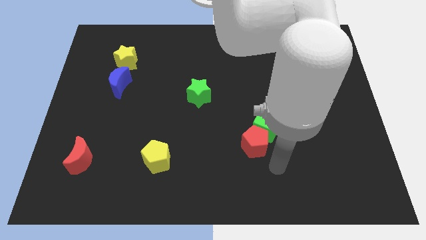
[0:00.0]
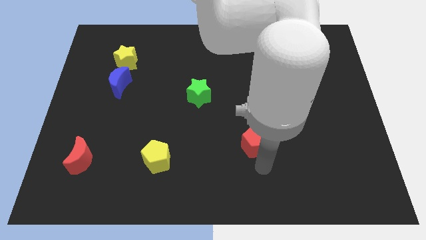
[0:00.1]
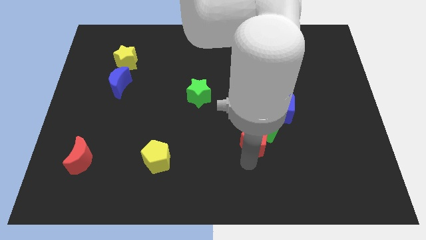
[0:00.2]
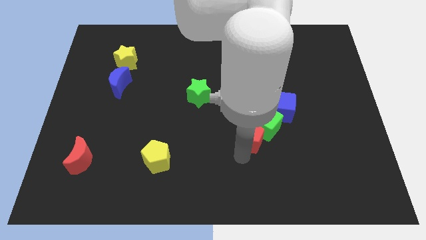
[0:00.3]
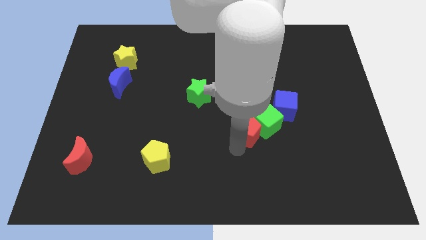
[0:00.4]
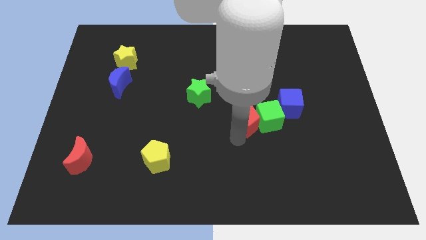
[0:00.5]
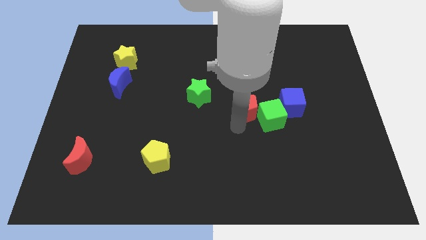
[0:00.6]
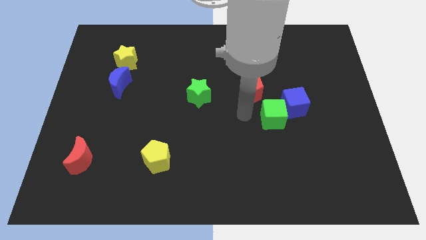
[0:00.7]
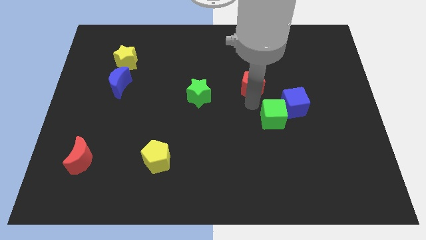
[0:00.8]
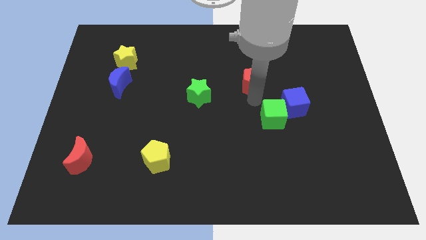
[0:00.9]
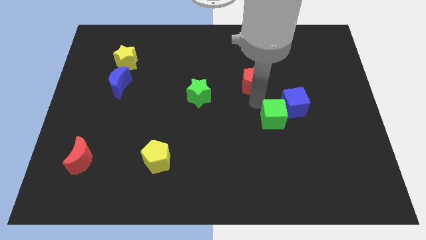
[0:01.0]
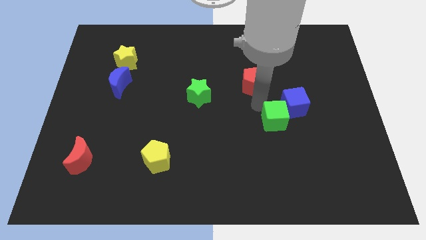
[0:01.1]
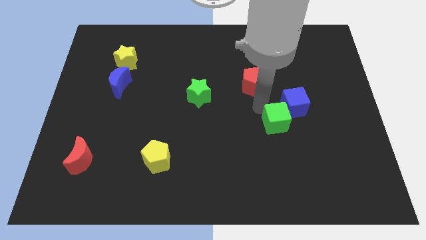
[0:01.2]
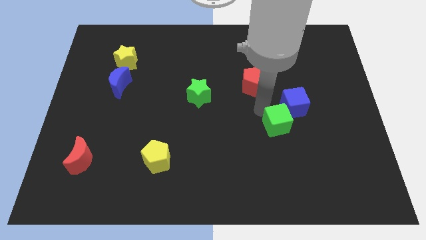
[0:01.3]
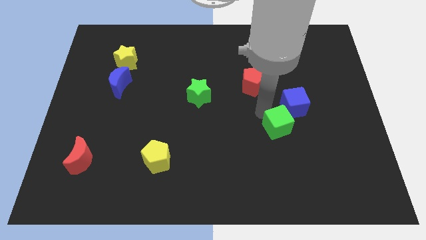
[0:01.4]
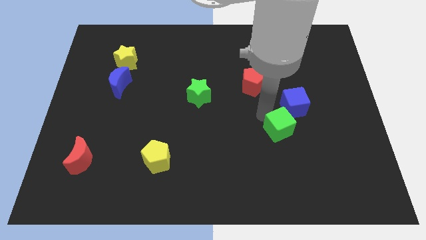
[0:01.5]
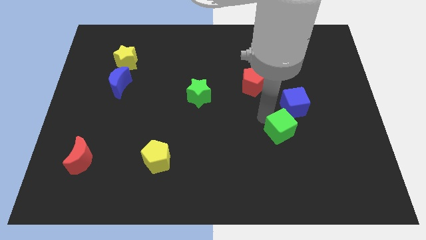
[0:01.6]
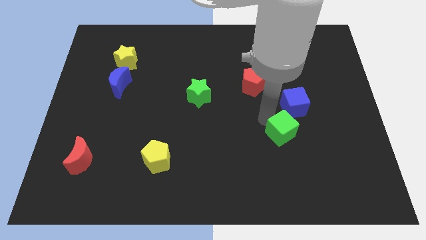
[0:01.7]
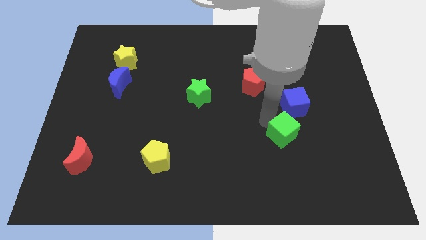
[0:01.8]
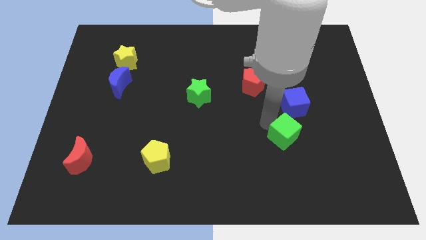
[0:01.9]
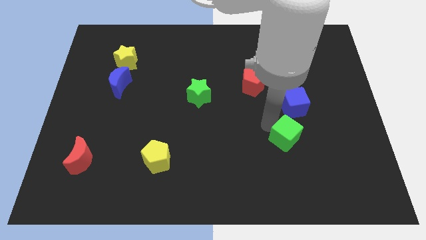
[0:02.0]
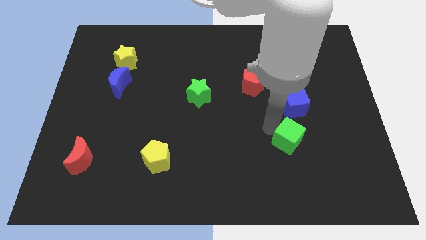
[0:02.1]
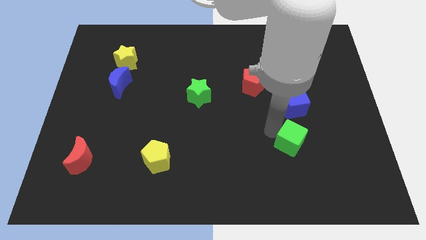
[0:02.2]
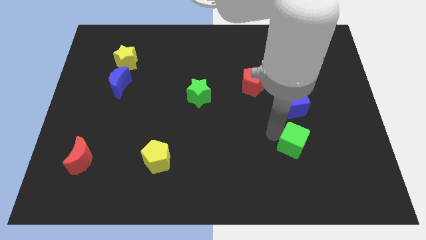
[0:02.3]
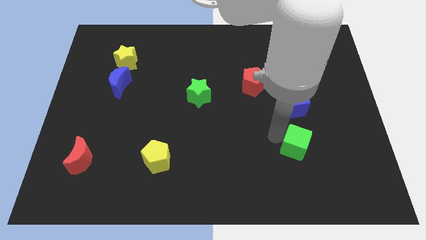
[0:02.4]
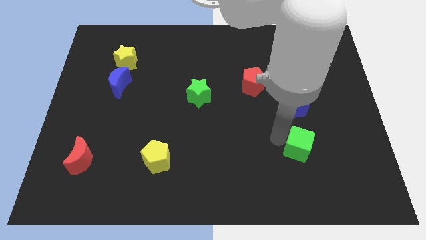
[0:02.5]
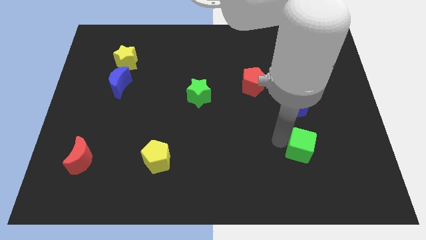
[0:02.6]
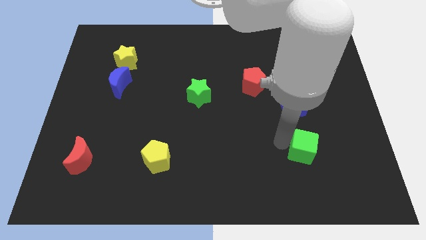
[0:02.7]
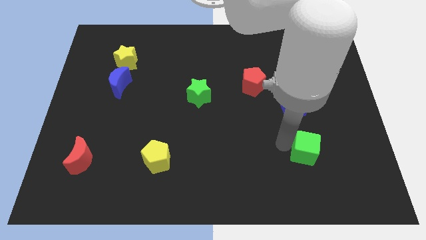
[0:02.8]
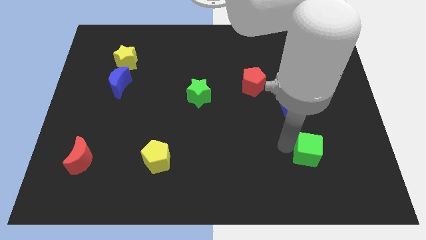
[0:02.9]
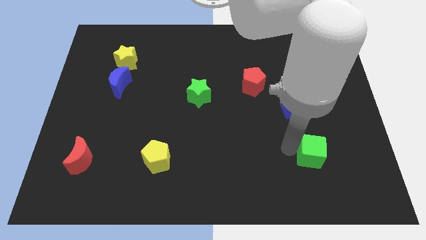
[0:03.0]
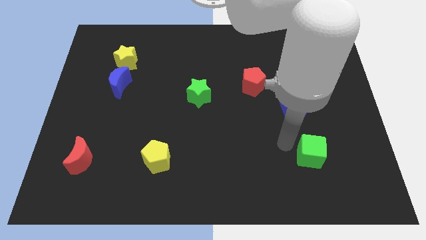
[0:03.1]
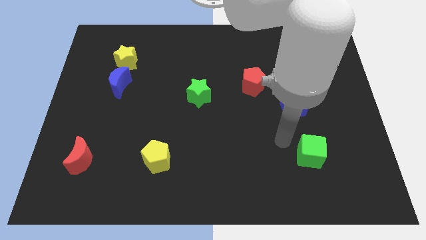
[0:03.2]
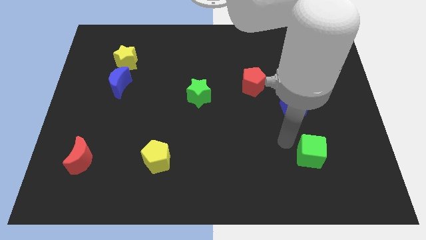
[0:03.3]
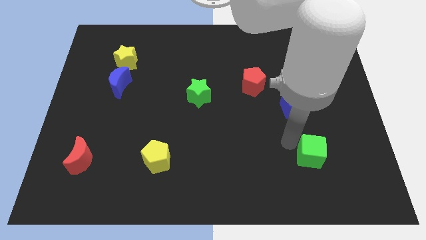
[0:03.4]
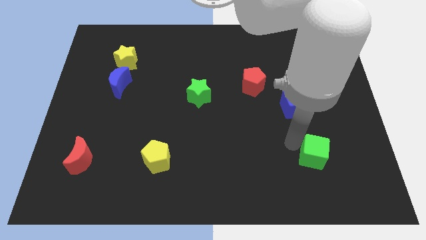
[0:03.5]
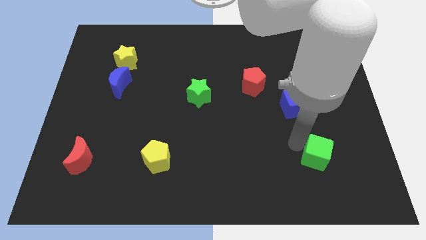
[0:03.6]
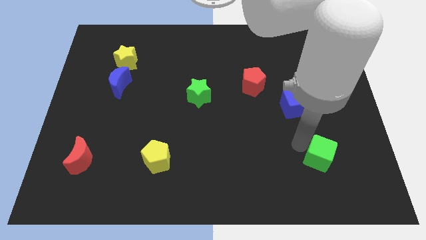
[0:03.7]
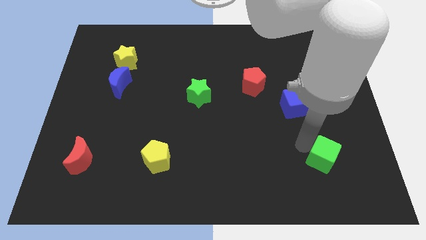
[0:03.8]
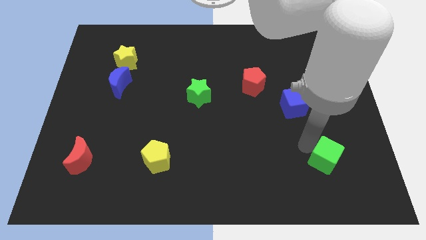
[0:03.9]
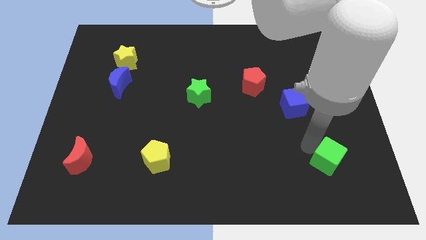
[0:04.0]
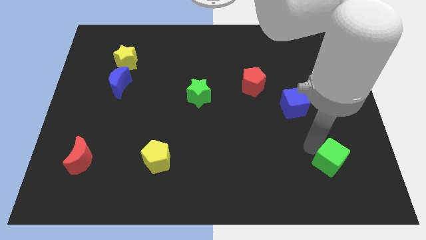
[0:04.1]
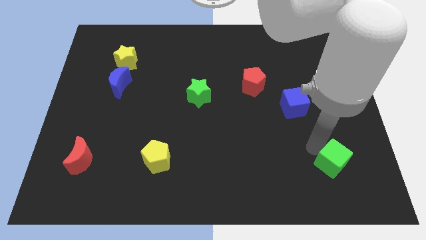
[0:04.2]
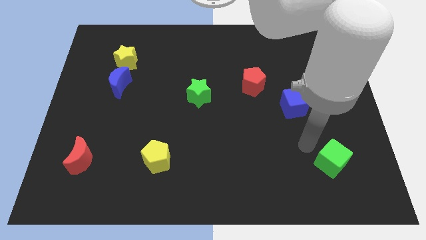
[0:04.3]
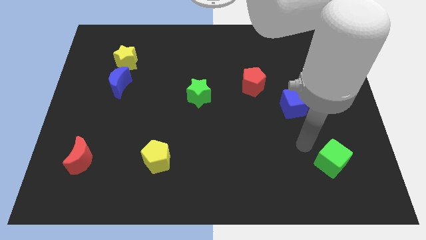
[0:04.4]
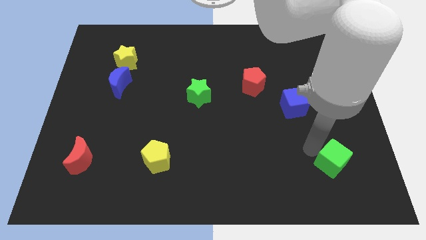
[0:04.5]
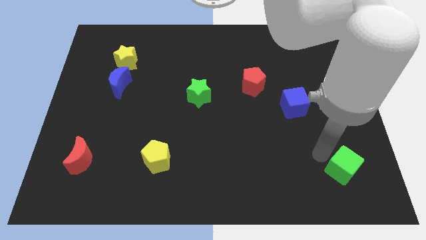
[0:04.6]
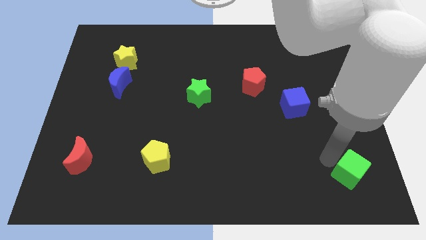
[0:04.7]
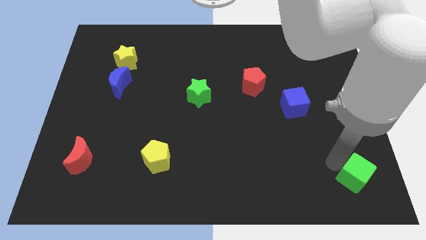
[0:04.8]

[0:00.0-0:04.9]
slide the green cube to the bottom right corner

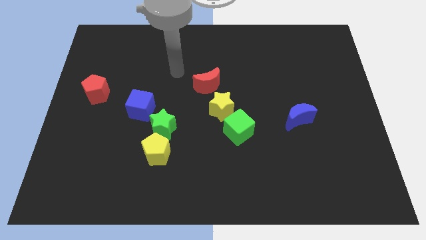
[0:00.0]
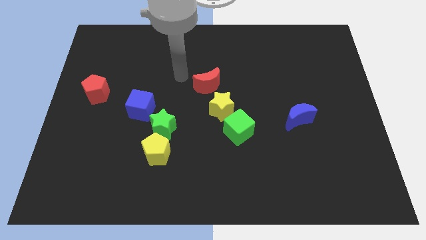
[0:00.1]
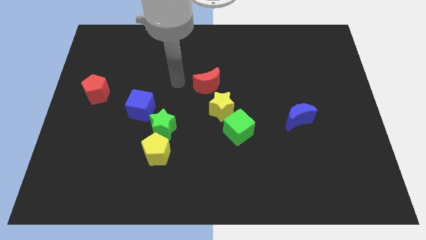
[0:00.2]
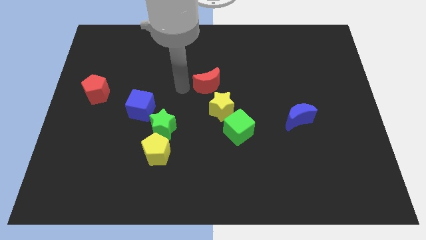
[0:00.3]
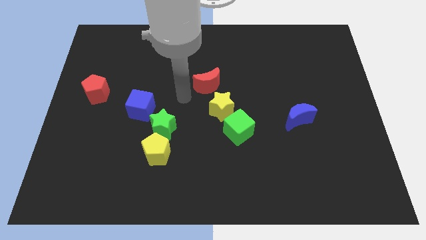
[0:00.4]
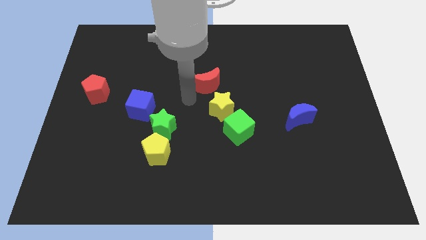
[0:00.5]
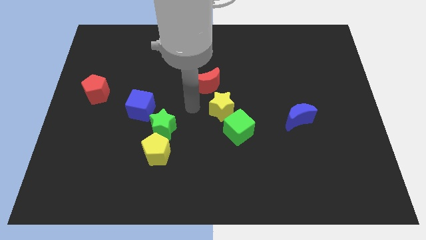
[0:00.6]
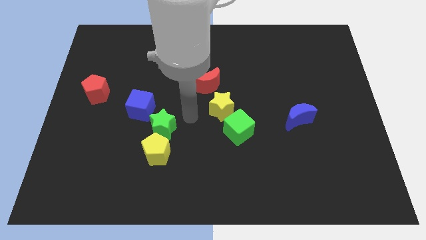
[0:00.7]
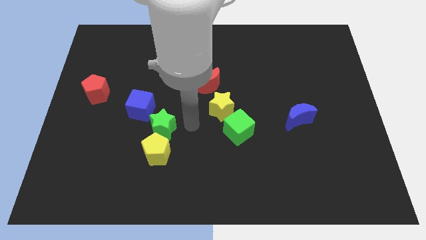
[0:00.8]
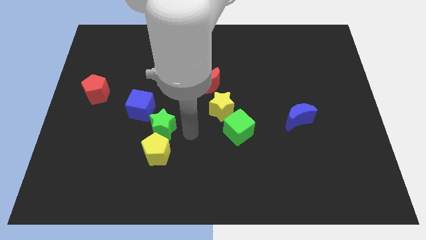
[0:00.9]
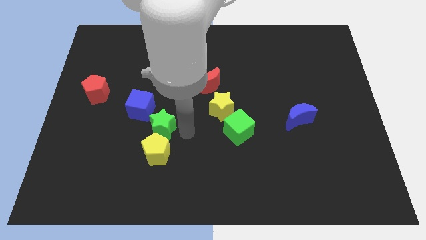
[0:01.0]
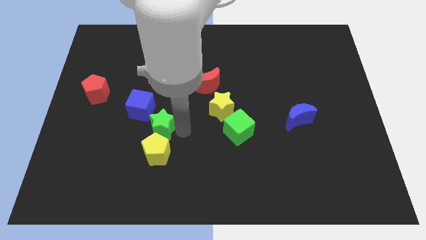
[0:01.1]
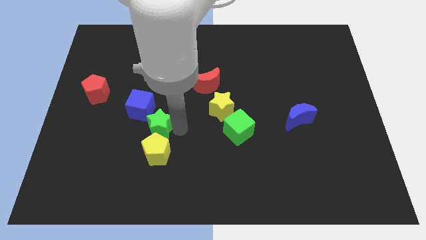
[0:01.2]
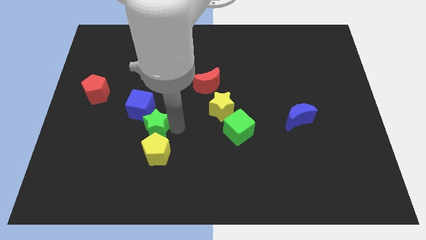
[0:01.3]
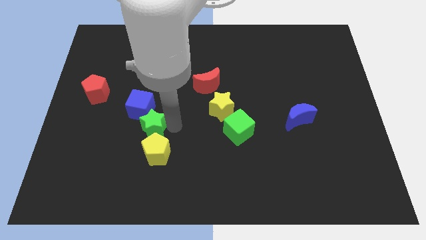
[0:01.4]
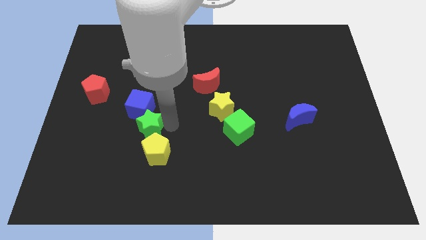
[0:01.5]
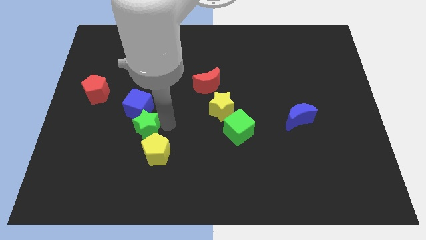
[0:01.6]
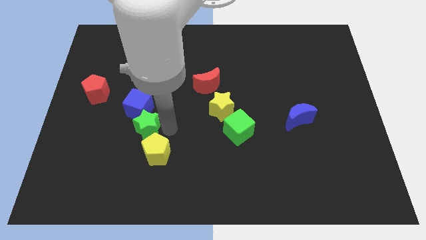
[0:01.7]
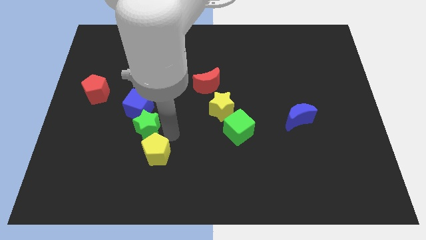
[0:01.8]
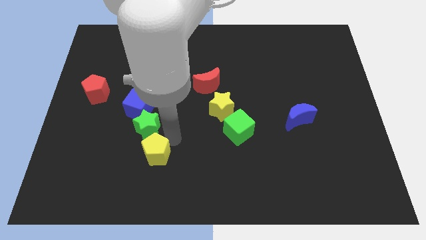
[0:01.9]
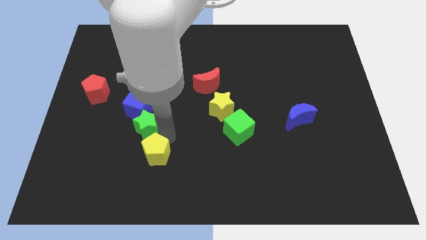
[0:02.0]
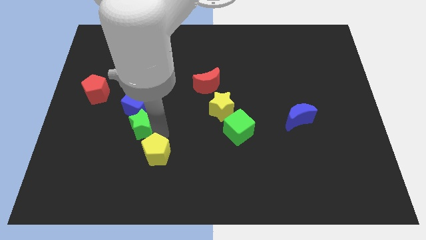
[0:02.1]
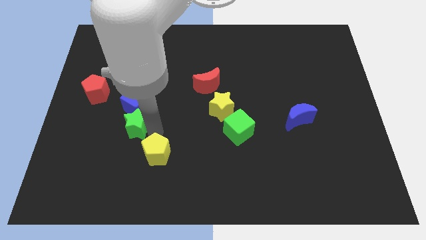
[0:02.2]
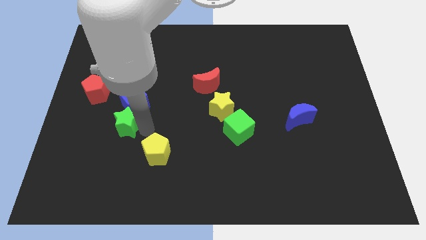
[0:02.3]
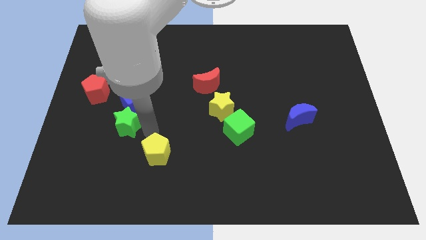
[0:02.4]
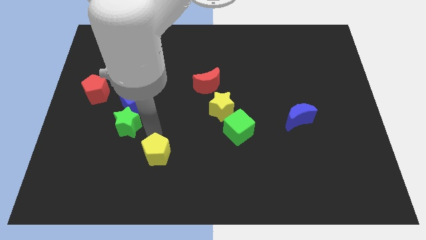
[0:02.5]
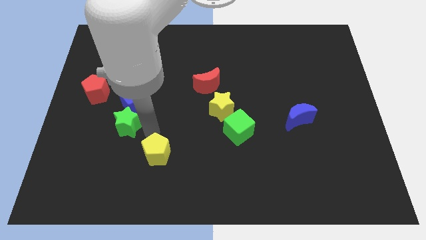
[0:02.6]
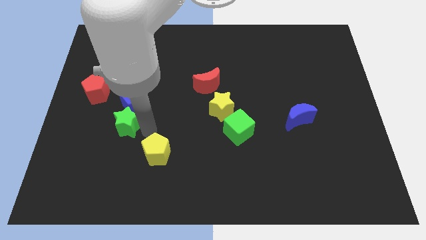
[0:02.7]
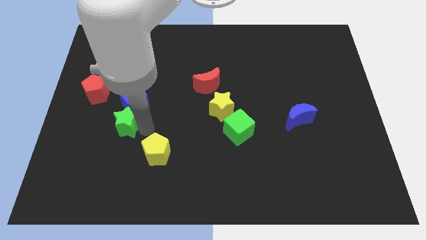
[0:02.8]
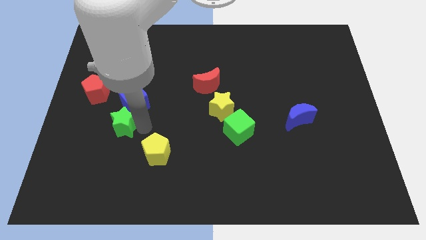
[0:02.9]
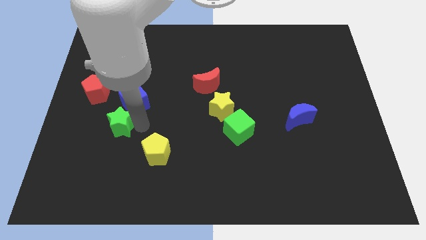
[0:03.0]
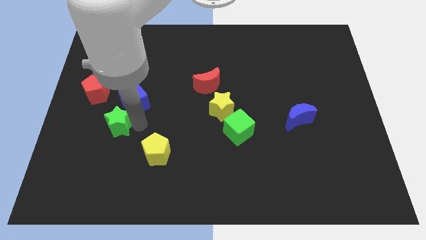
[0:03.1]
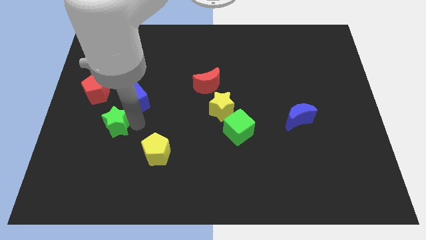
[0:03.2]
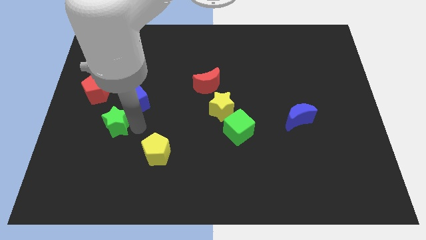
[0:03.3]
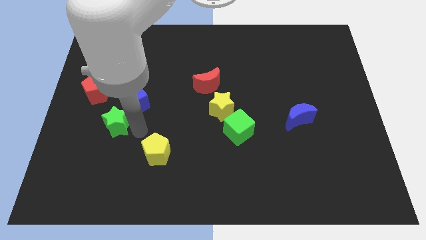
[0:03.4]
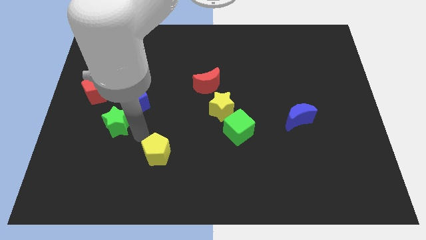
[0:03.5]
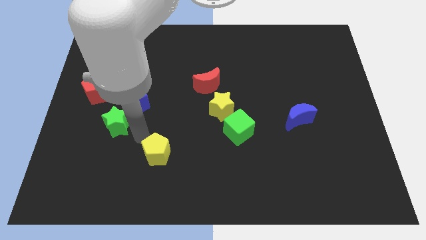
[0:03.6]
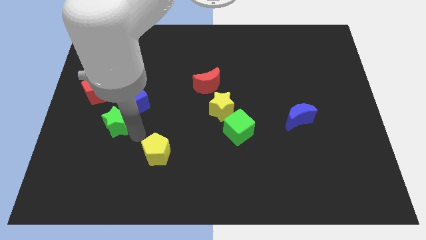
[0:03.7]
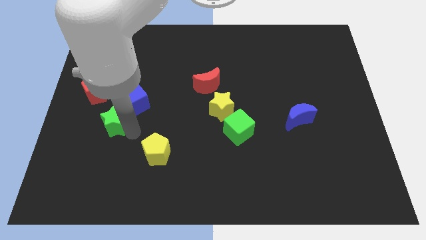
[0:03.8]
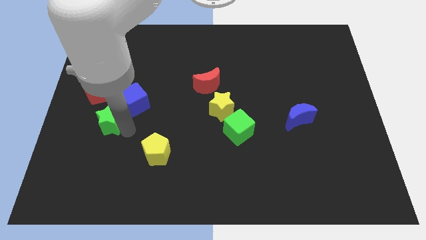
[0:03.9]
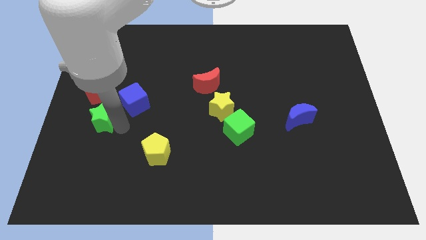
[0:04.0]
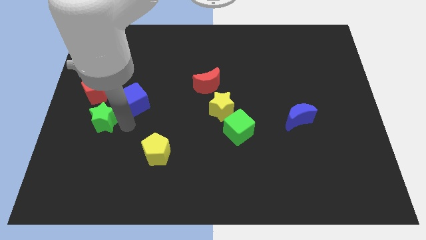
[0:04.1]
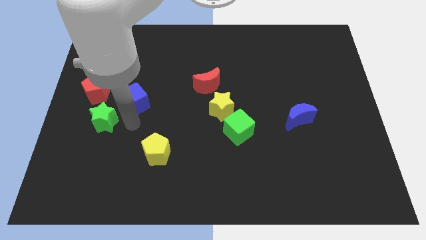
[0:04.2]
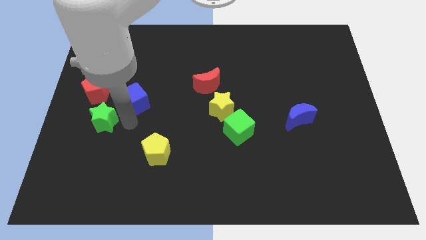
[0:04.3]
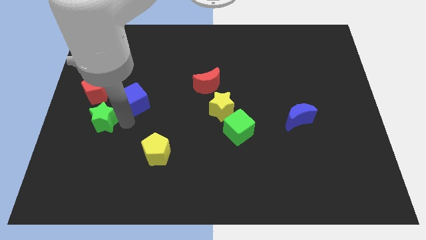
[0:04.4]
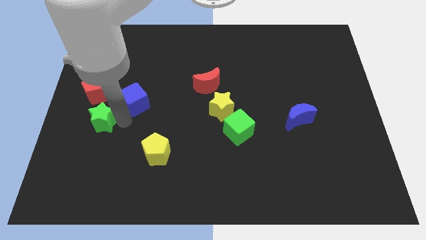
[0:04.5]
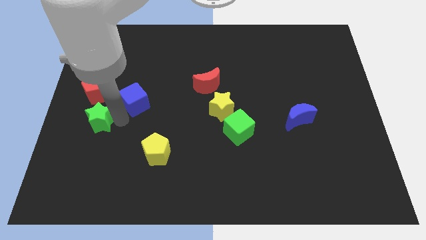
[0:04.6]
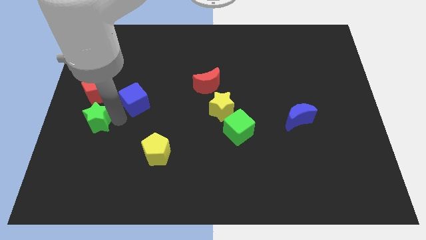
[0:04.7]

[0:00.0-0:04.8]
move the green star to the center left
